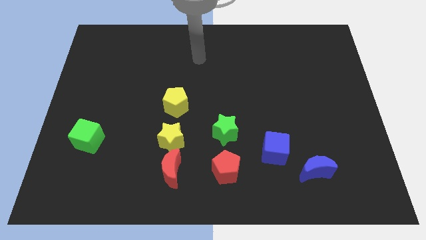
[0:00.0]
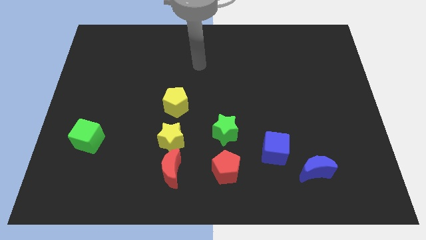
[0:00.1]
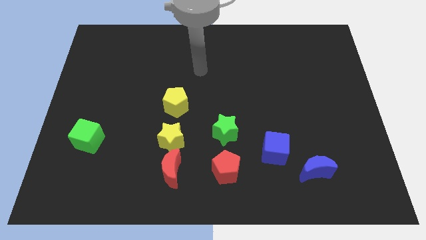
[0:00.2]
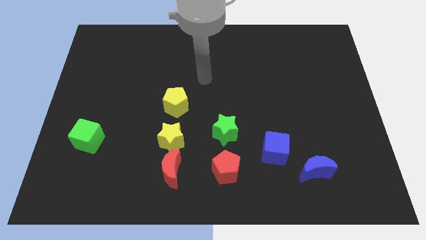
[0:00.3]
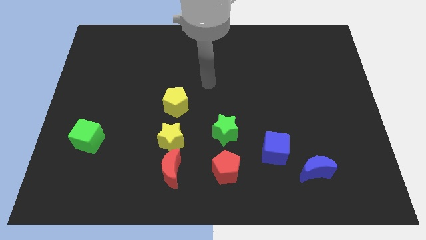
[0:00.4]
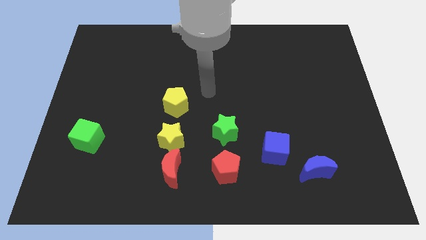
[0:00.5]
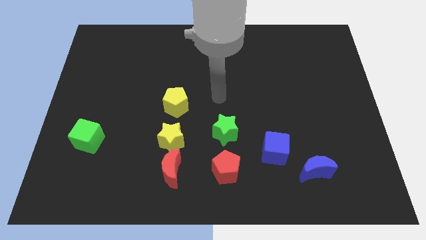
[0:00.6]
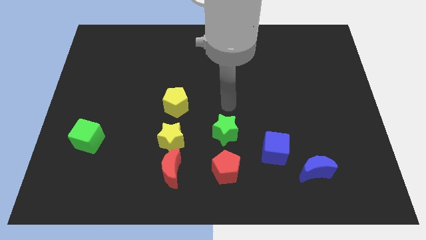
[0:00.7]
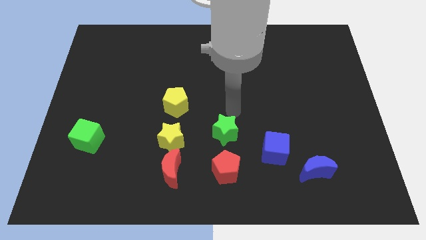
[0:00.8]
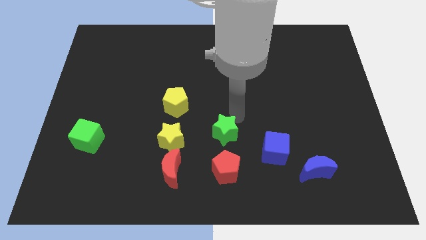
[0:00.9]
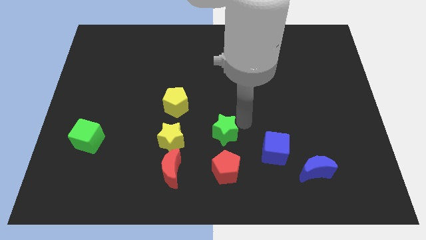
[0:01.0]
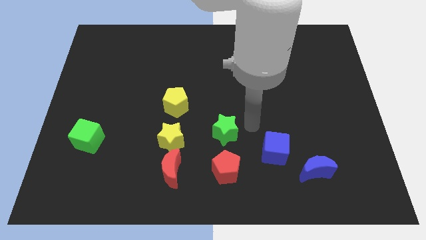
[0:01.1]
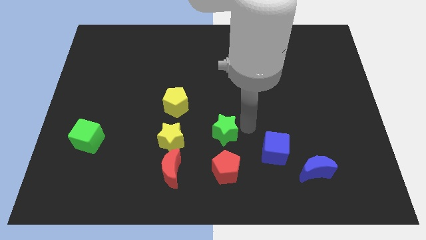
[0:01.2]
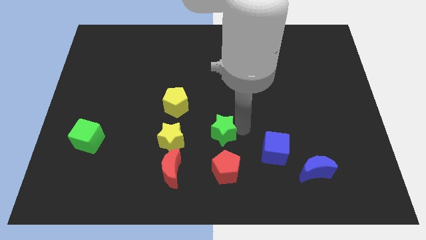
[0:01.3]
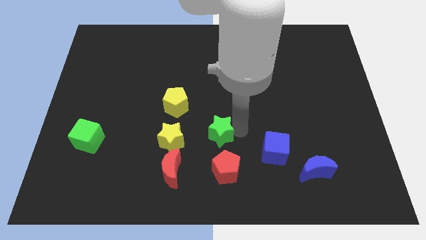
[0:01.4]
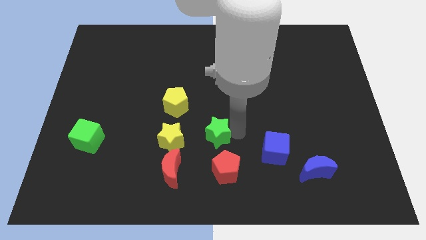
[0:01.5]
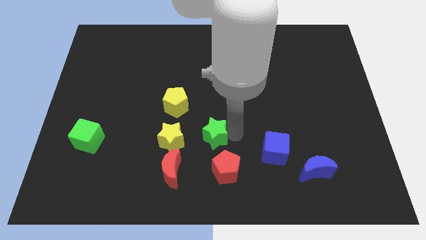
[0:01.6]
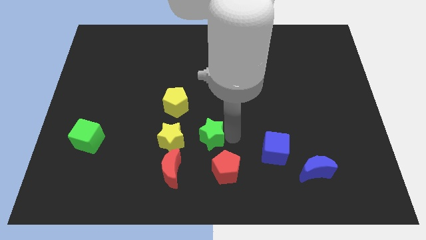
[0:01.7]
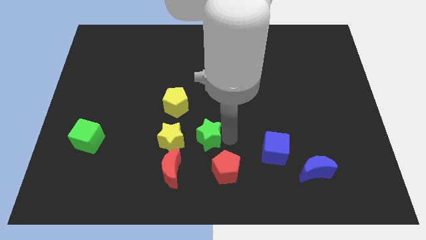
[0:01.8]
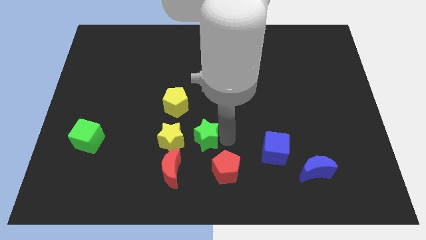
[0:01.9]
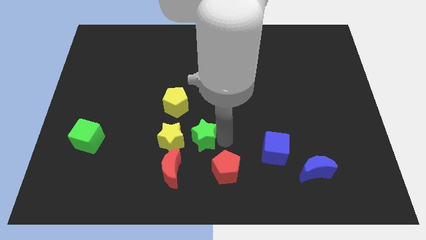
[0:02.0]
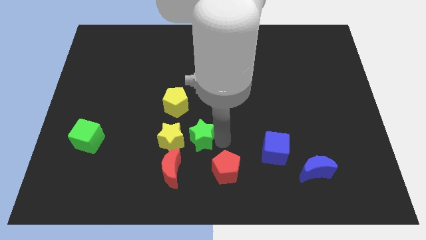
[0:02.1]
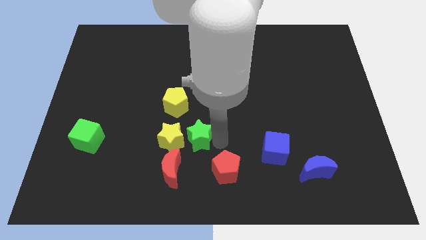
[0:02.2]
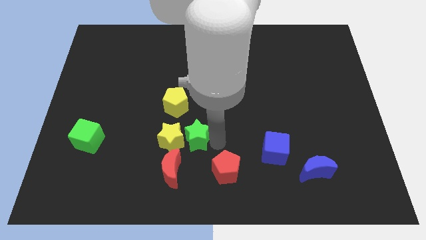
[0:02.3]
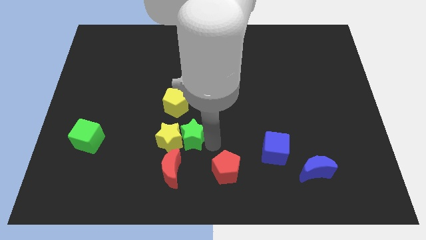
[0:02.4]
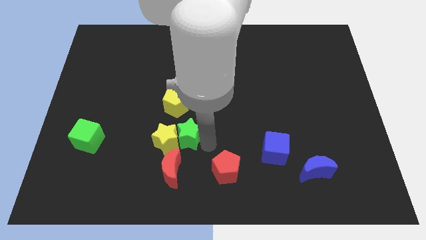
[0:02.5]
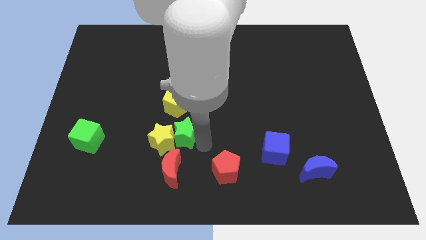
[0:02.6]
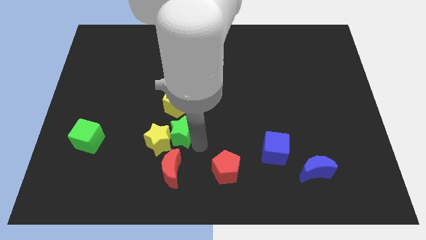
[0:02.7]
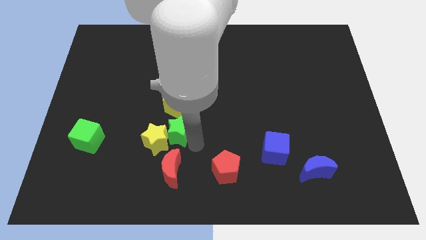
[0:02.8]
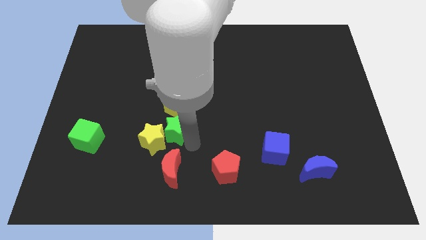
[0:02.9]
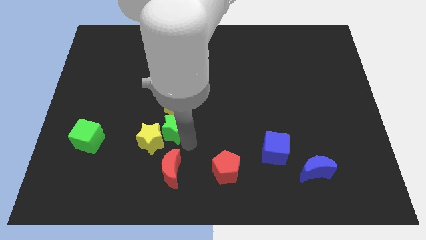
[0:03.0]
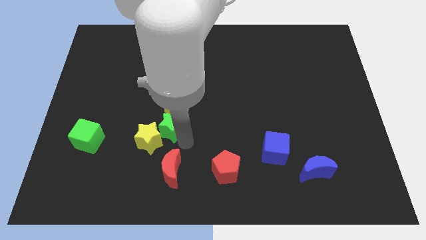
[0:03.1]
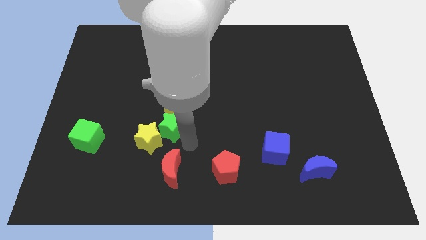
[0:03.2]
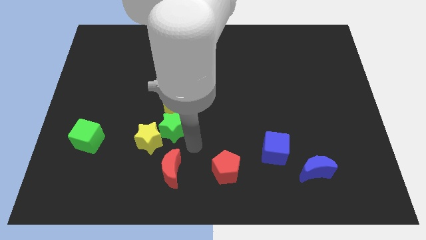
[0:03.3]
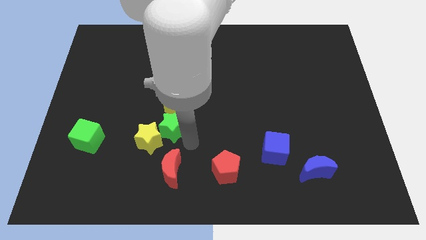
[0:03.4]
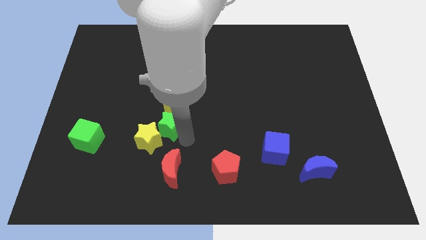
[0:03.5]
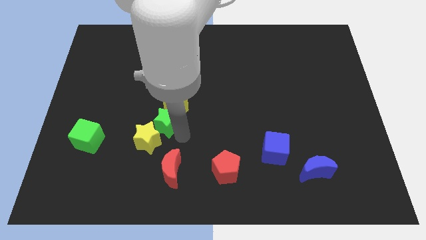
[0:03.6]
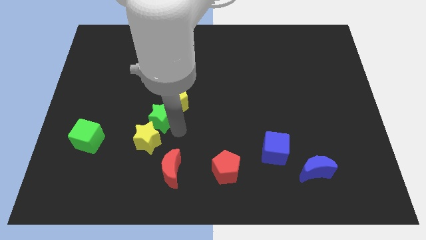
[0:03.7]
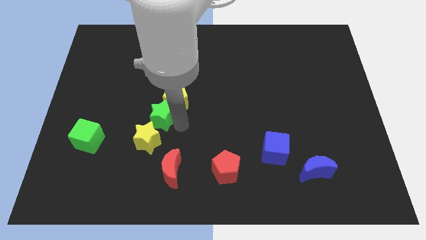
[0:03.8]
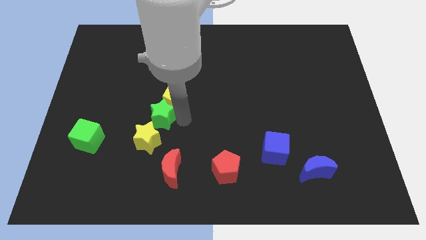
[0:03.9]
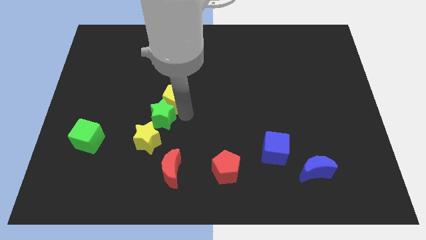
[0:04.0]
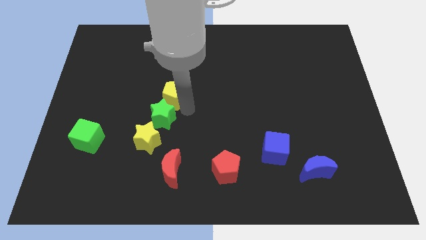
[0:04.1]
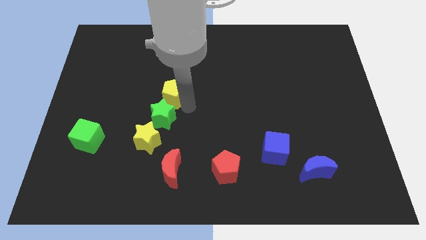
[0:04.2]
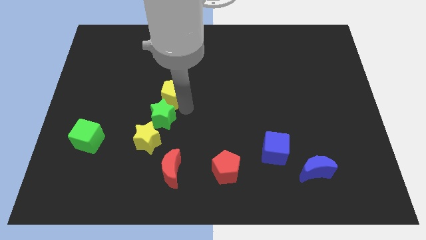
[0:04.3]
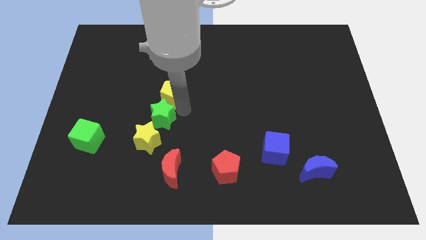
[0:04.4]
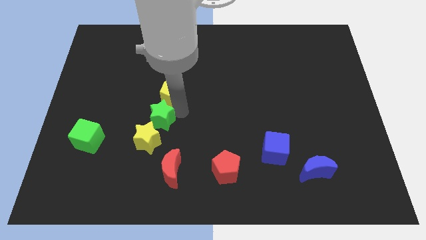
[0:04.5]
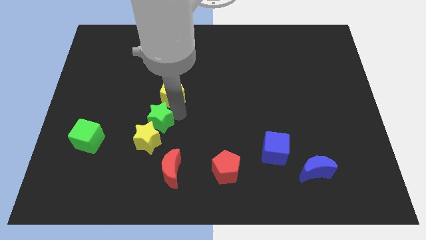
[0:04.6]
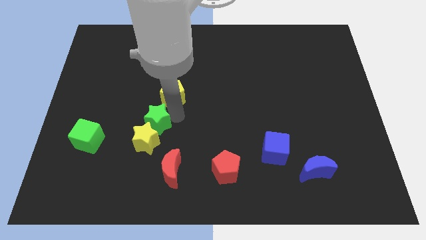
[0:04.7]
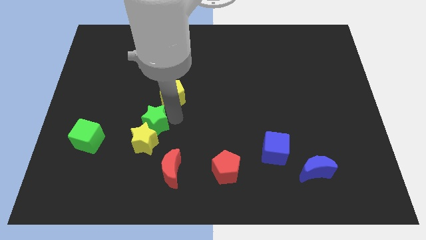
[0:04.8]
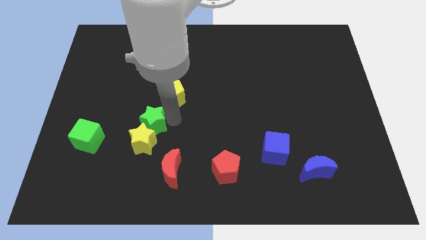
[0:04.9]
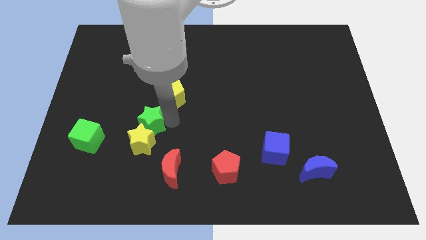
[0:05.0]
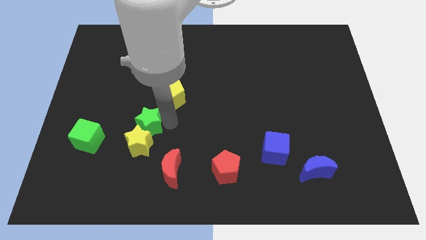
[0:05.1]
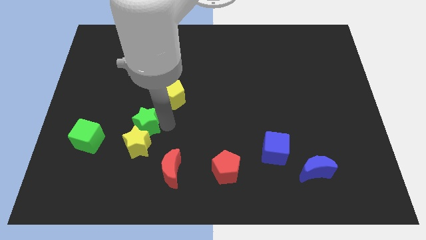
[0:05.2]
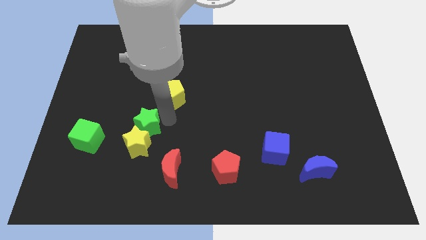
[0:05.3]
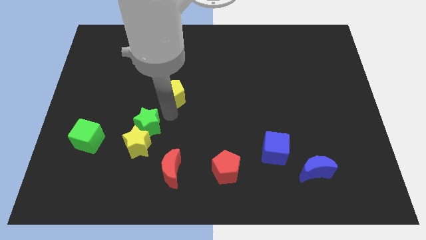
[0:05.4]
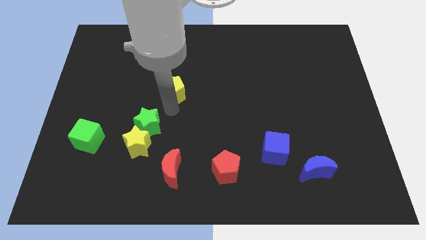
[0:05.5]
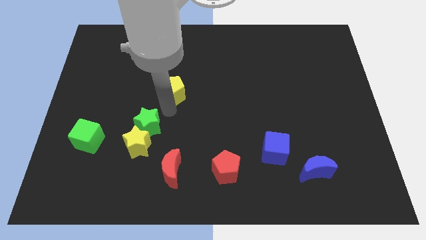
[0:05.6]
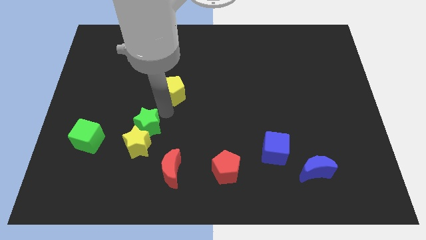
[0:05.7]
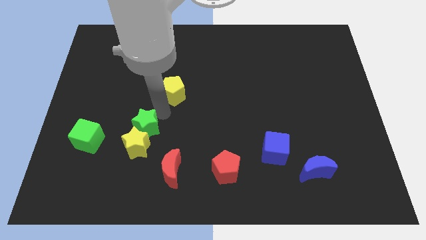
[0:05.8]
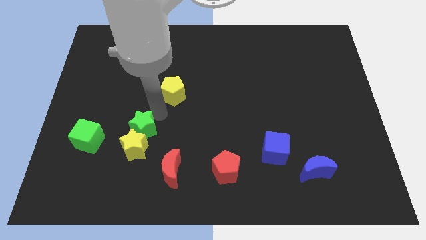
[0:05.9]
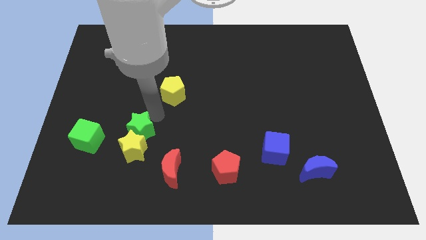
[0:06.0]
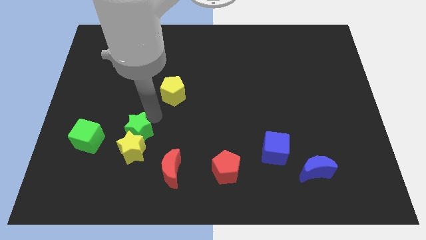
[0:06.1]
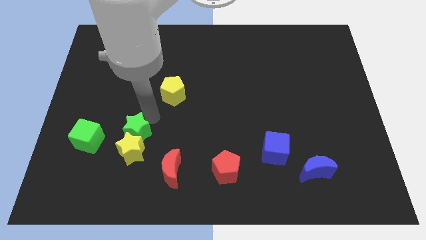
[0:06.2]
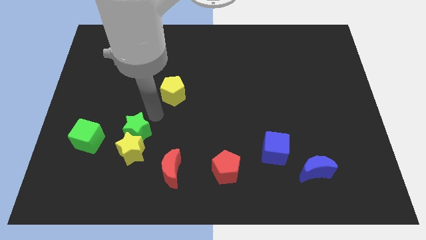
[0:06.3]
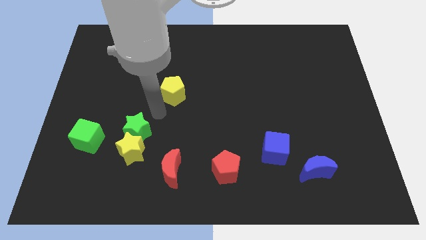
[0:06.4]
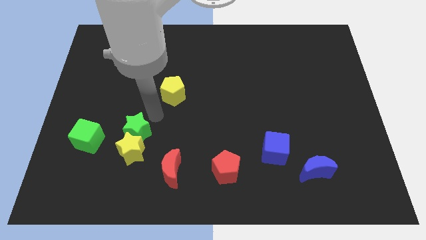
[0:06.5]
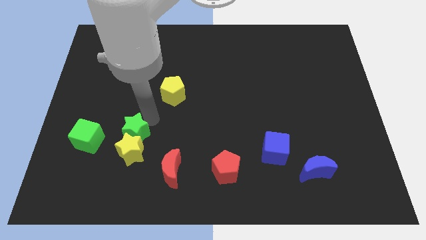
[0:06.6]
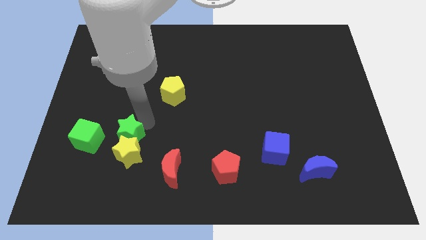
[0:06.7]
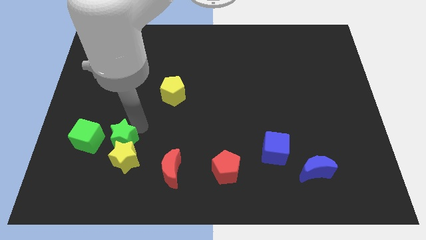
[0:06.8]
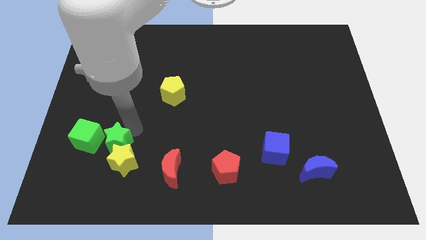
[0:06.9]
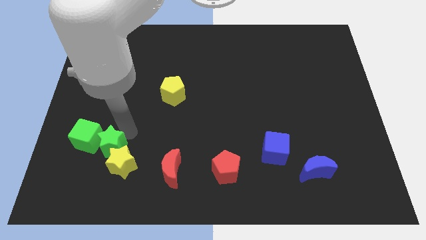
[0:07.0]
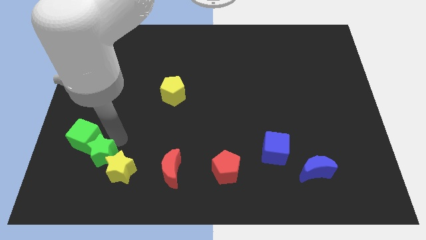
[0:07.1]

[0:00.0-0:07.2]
push the green star to the bottom of the green cube

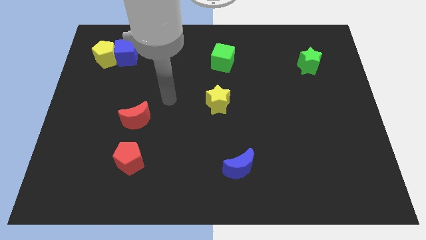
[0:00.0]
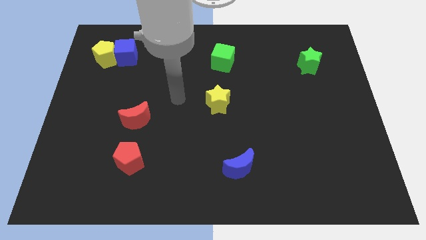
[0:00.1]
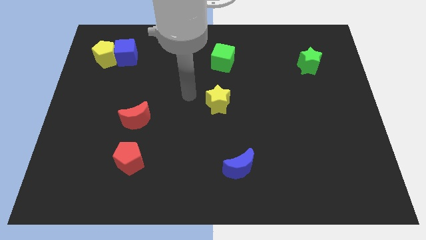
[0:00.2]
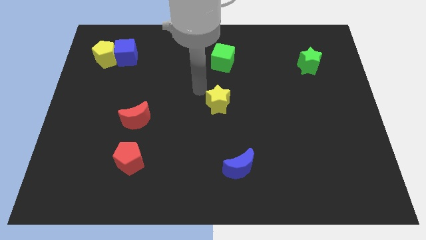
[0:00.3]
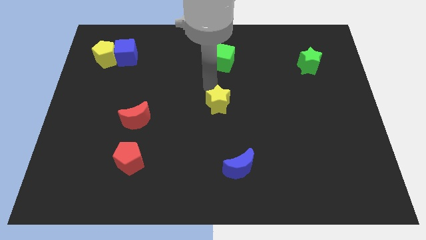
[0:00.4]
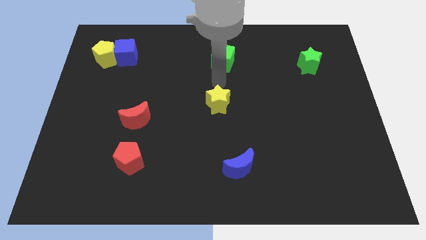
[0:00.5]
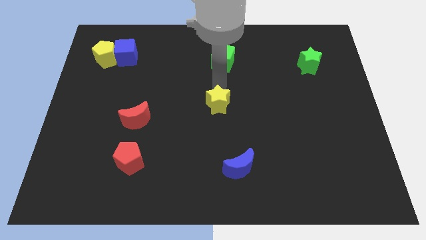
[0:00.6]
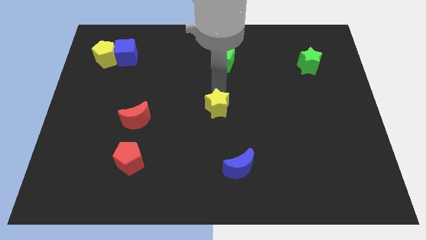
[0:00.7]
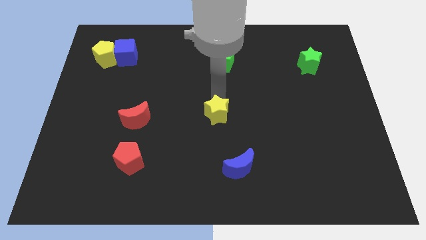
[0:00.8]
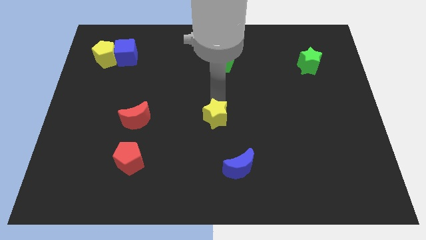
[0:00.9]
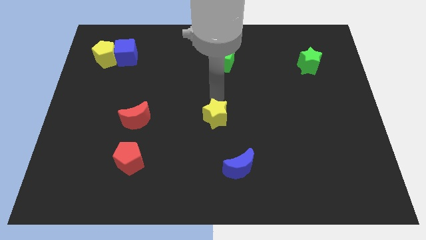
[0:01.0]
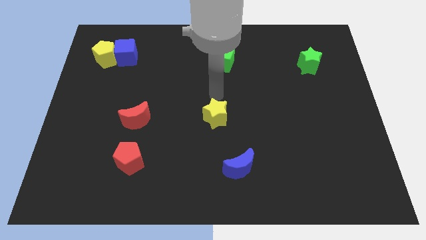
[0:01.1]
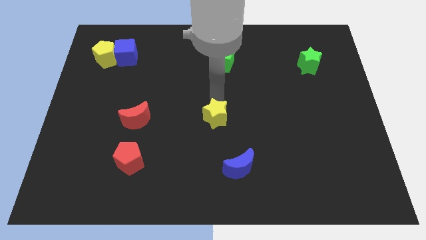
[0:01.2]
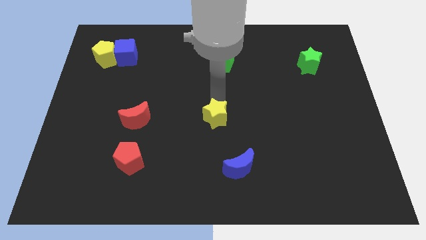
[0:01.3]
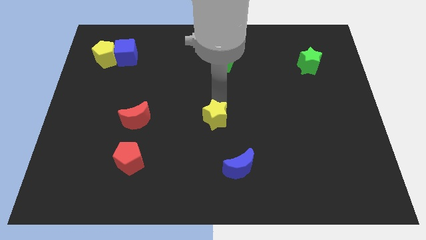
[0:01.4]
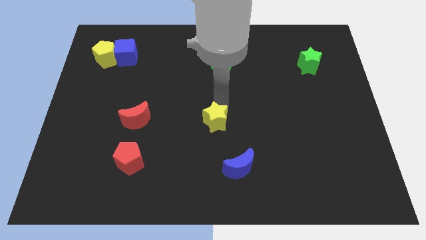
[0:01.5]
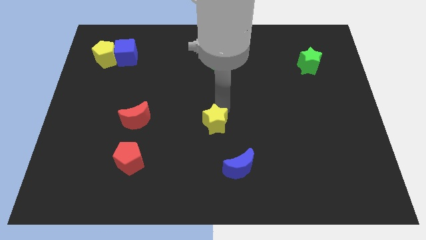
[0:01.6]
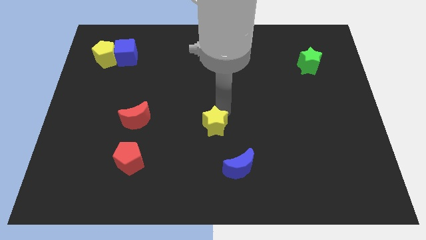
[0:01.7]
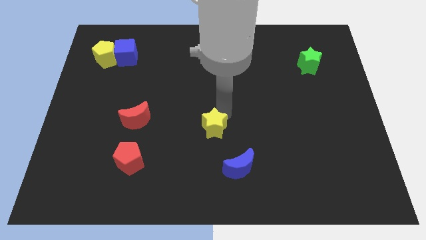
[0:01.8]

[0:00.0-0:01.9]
push the yellow star diagonally up and to the left of the blue moon
